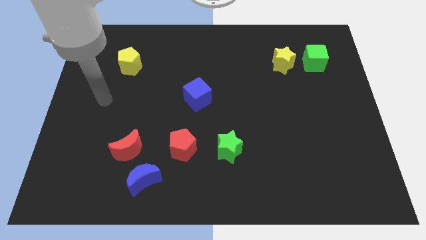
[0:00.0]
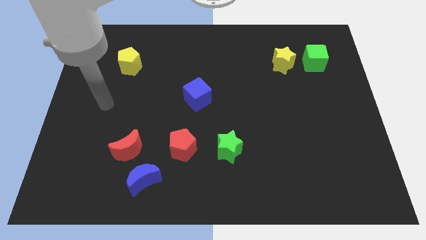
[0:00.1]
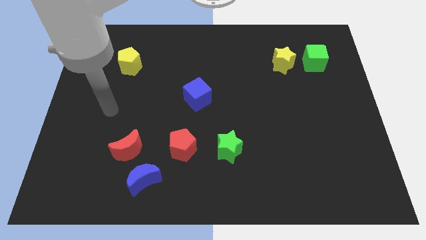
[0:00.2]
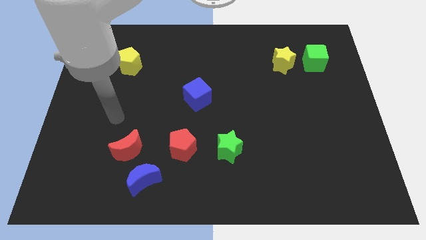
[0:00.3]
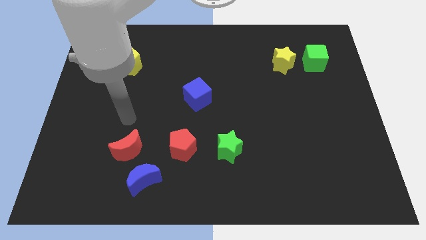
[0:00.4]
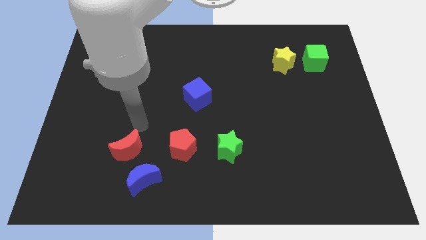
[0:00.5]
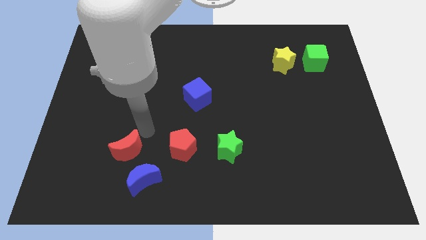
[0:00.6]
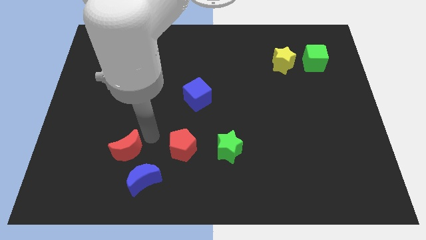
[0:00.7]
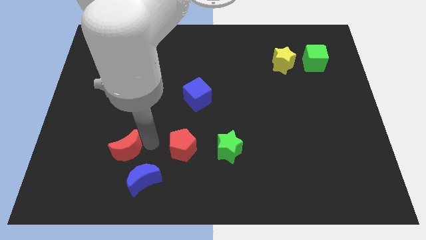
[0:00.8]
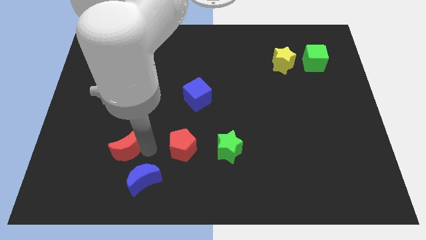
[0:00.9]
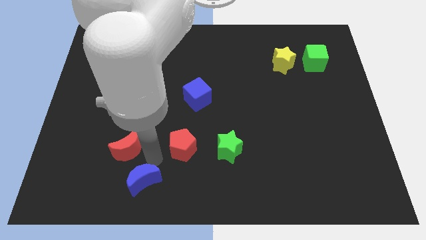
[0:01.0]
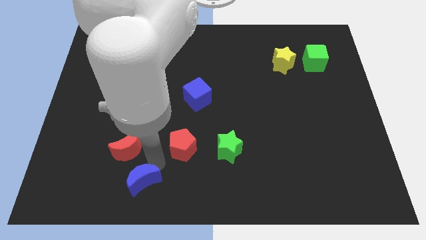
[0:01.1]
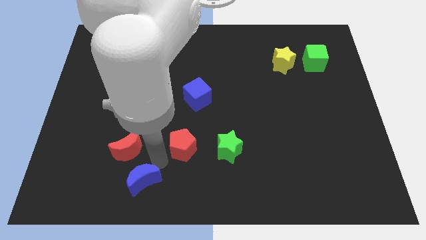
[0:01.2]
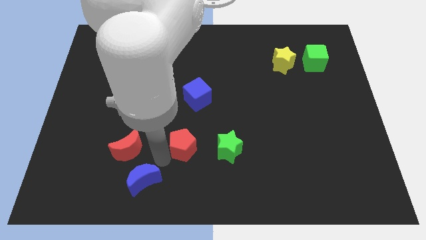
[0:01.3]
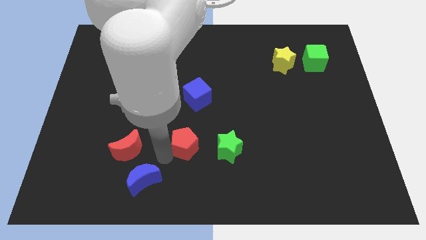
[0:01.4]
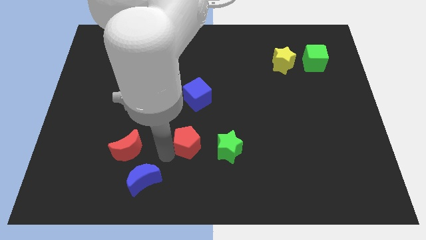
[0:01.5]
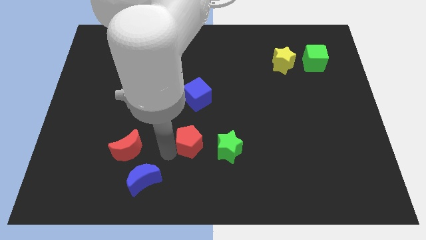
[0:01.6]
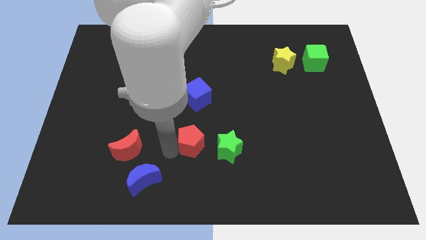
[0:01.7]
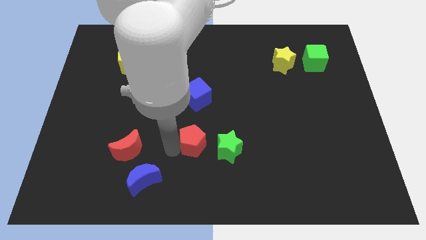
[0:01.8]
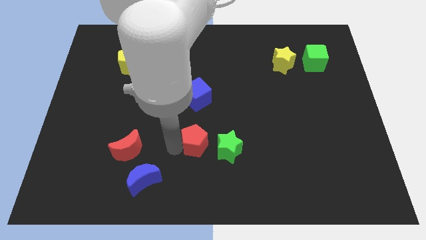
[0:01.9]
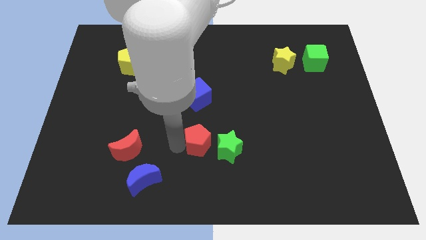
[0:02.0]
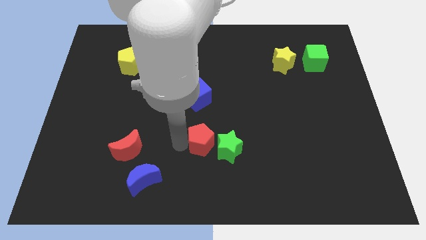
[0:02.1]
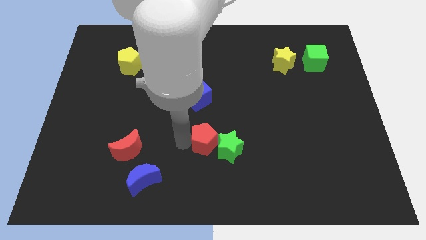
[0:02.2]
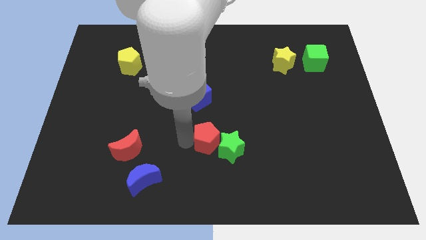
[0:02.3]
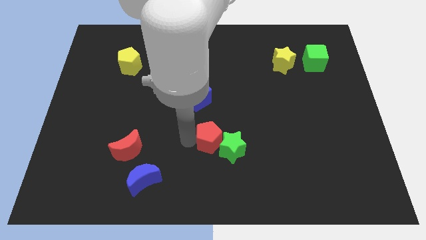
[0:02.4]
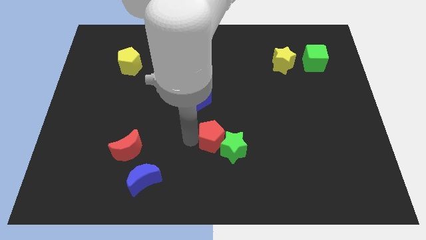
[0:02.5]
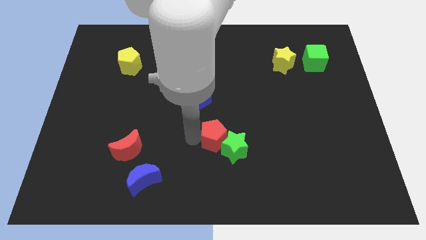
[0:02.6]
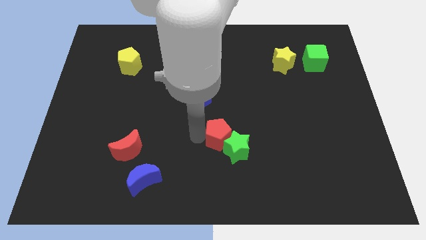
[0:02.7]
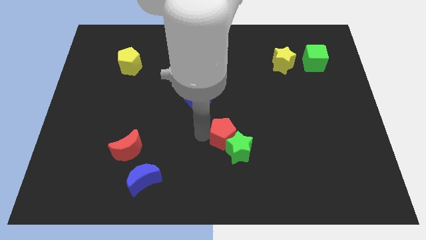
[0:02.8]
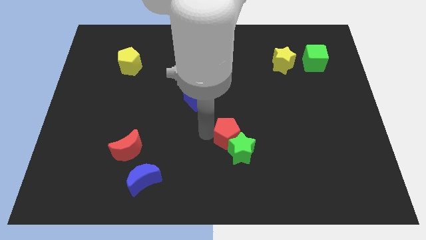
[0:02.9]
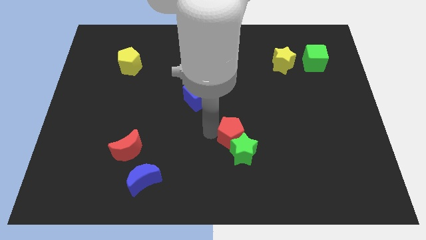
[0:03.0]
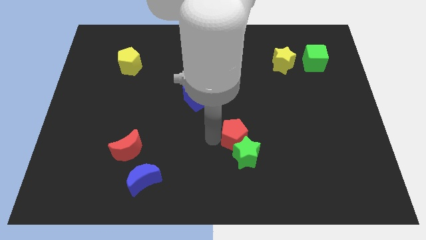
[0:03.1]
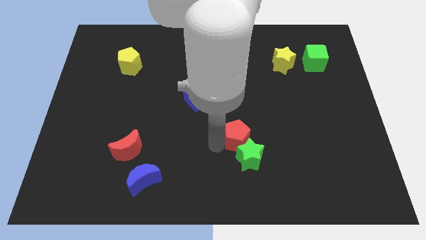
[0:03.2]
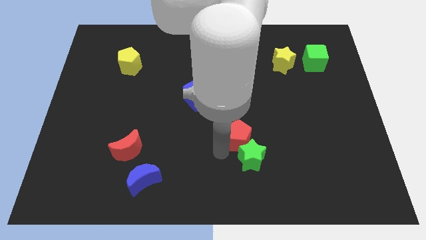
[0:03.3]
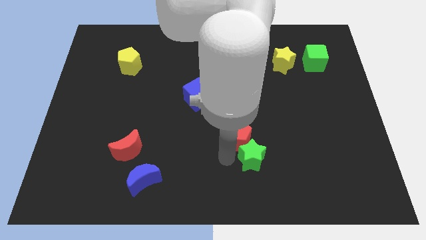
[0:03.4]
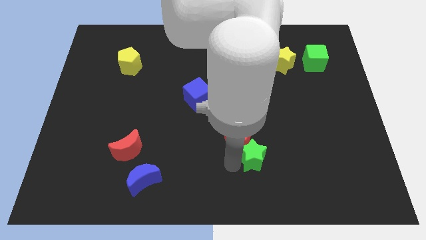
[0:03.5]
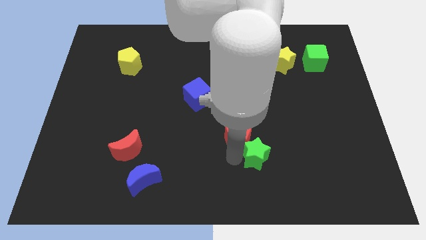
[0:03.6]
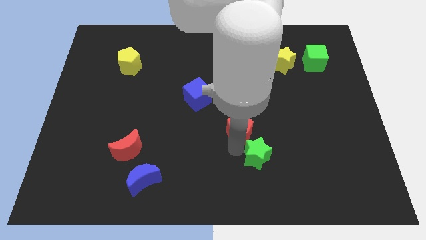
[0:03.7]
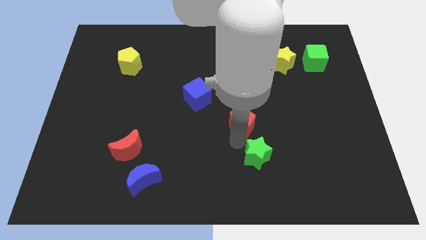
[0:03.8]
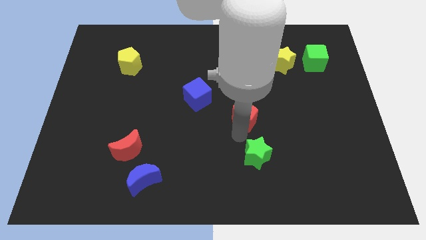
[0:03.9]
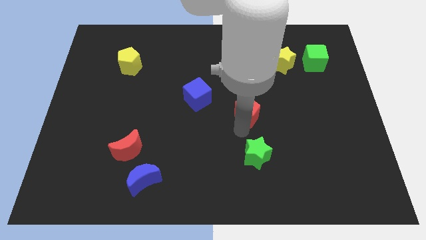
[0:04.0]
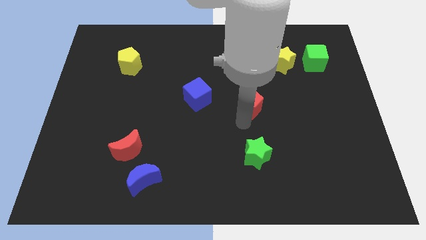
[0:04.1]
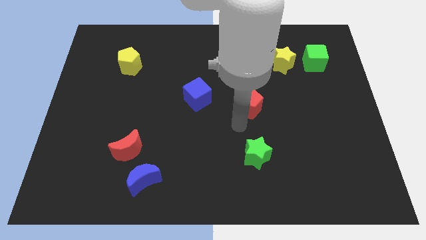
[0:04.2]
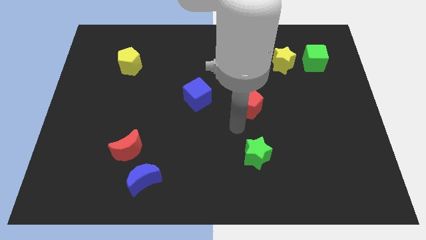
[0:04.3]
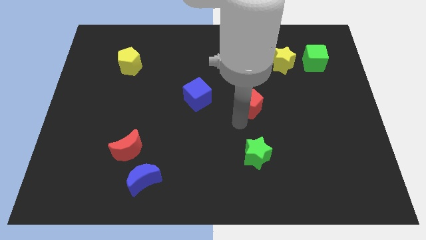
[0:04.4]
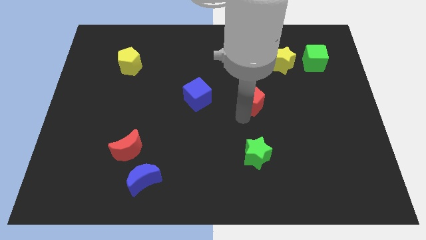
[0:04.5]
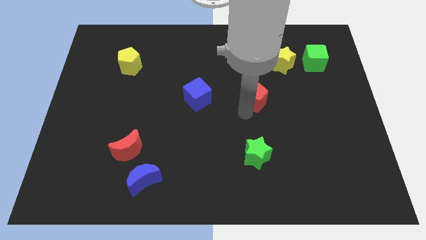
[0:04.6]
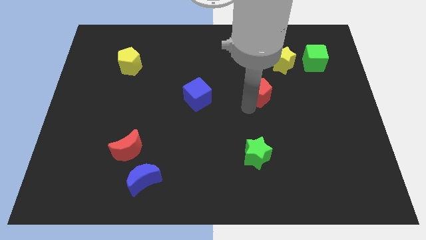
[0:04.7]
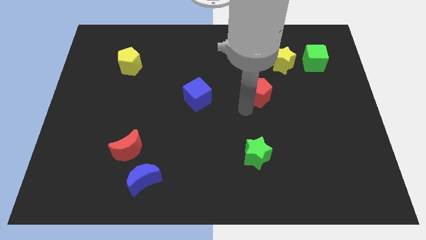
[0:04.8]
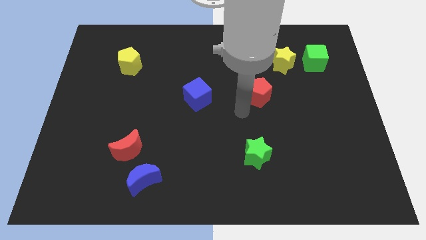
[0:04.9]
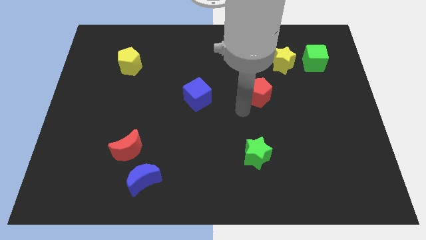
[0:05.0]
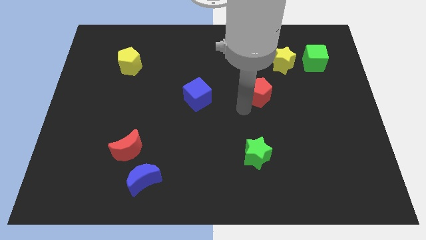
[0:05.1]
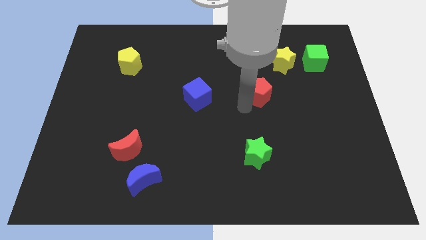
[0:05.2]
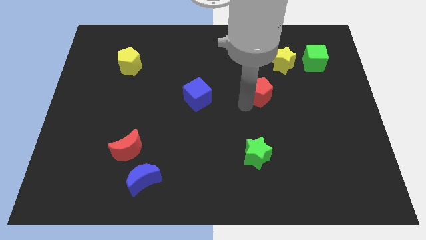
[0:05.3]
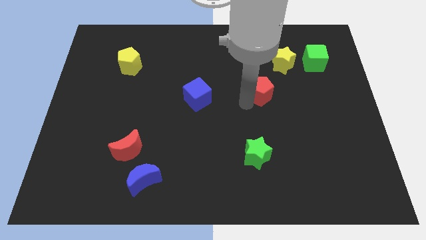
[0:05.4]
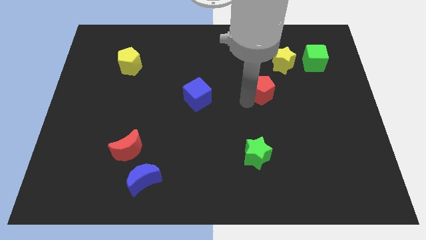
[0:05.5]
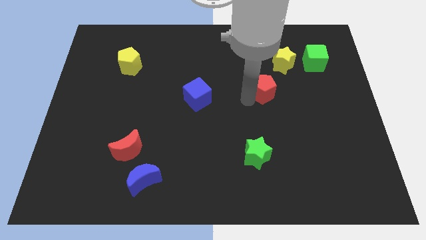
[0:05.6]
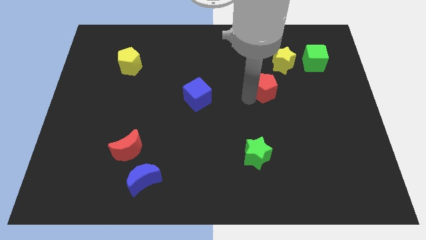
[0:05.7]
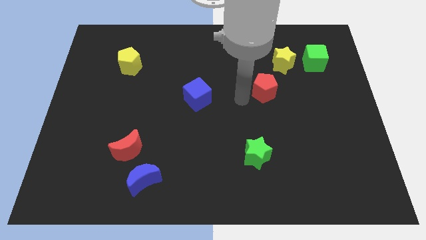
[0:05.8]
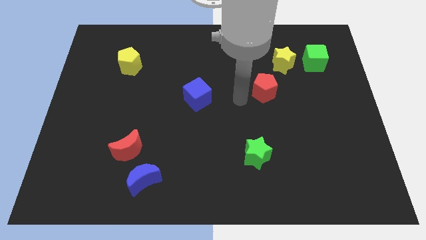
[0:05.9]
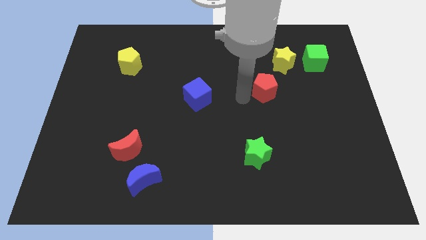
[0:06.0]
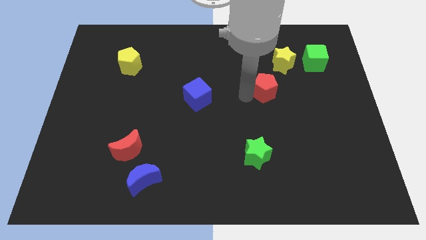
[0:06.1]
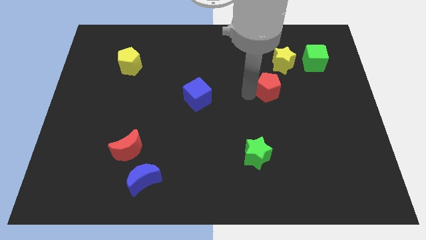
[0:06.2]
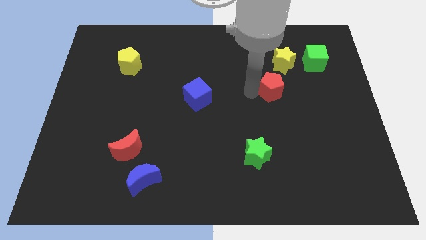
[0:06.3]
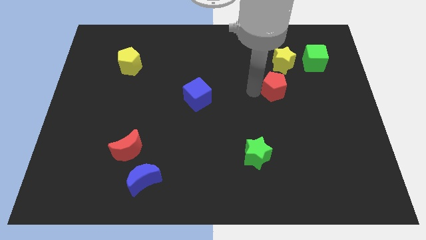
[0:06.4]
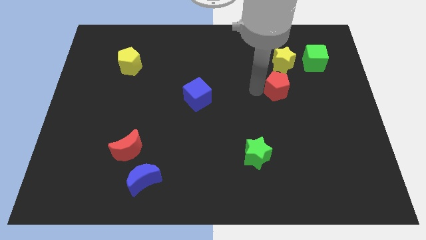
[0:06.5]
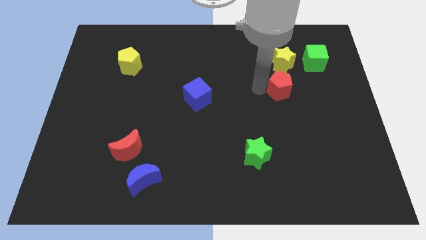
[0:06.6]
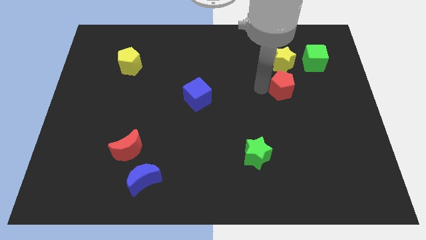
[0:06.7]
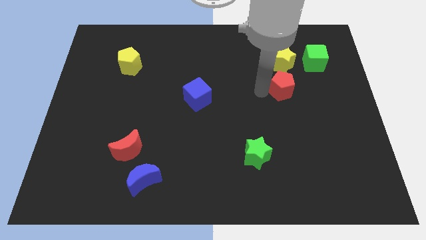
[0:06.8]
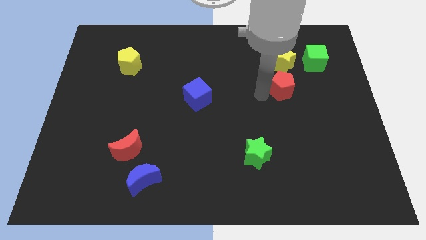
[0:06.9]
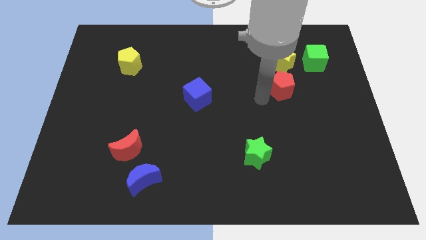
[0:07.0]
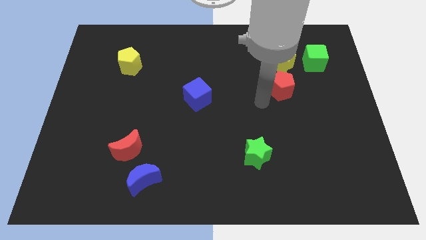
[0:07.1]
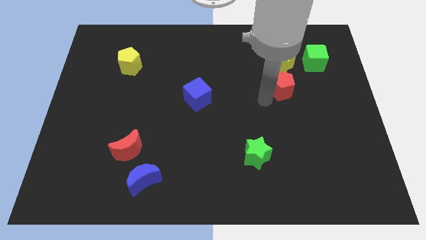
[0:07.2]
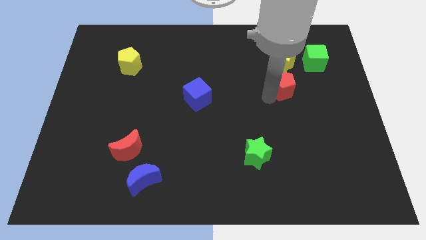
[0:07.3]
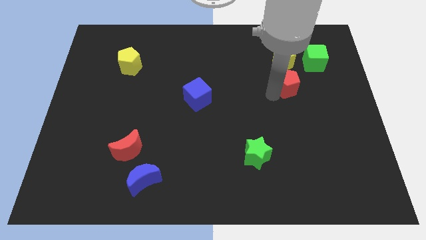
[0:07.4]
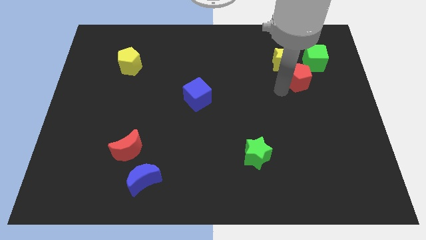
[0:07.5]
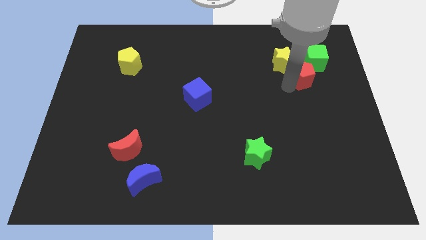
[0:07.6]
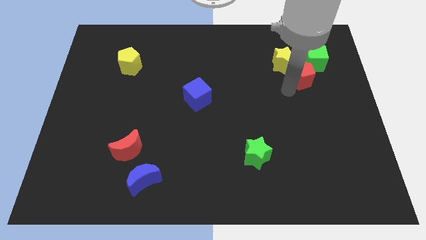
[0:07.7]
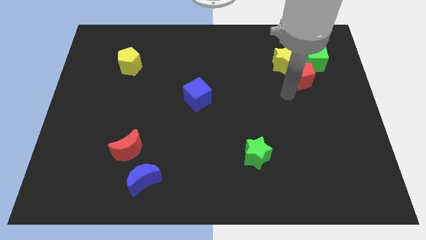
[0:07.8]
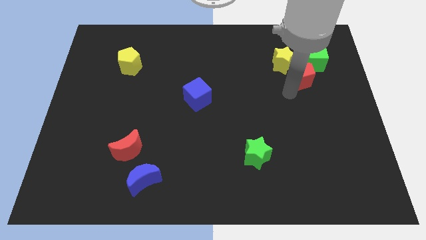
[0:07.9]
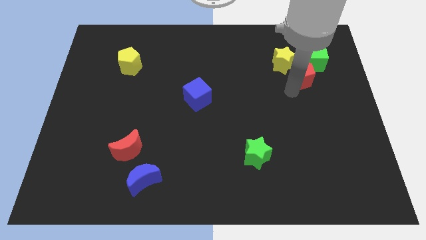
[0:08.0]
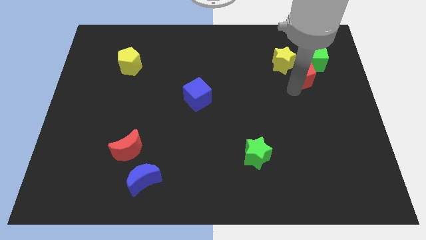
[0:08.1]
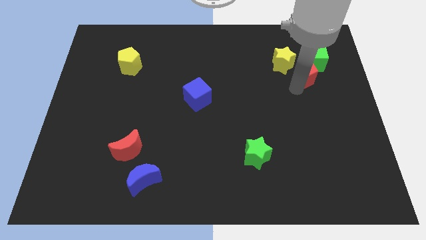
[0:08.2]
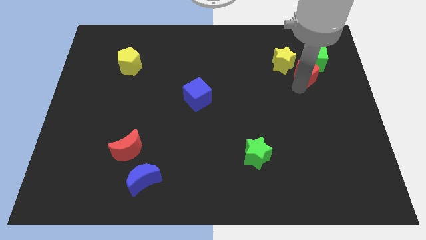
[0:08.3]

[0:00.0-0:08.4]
put the red pentagon towards the green cube
